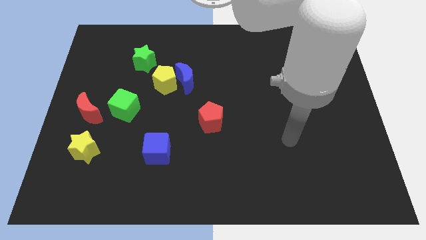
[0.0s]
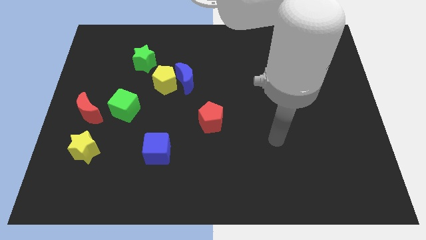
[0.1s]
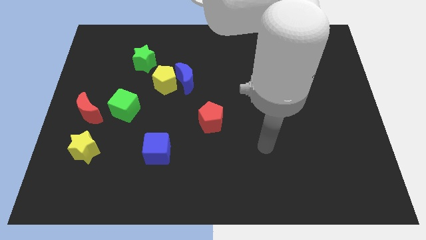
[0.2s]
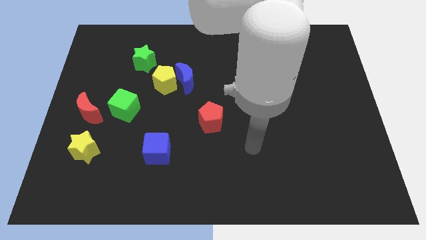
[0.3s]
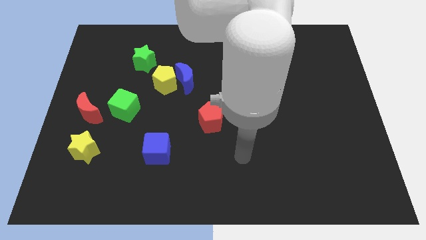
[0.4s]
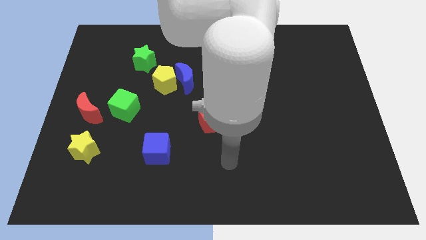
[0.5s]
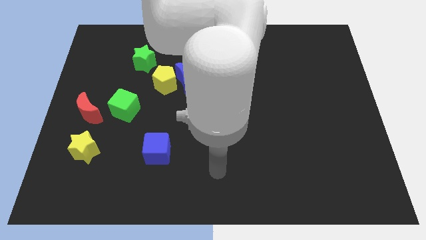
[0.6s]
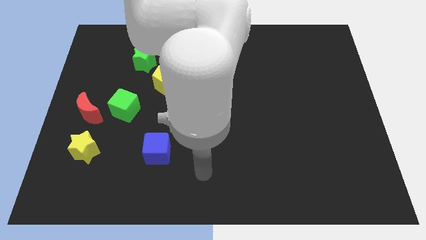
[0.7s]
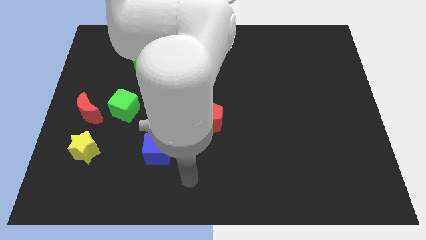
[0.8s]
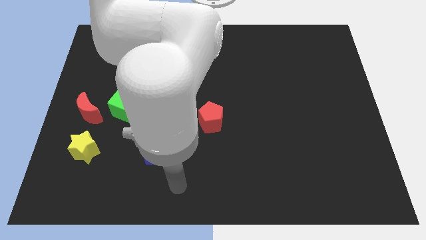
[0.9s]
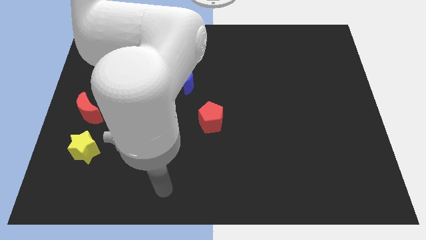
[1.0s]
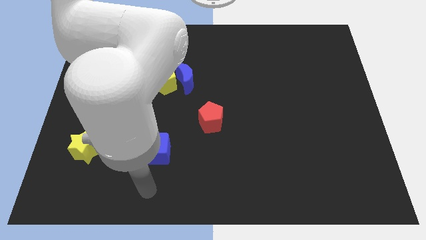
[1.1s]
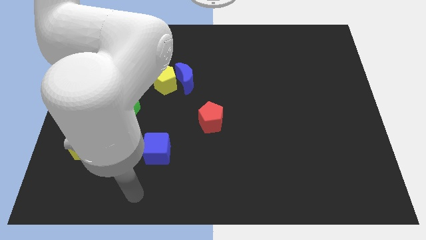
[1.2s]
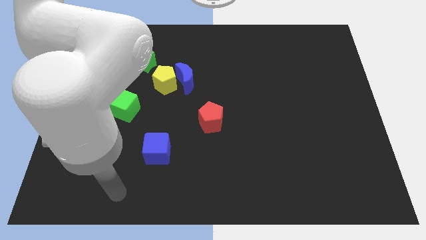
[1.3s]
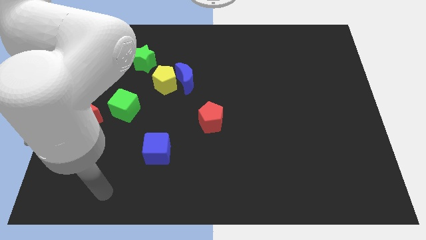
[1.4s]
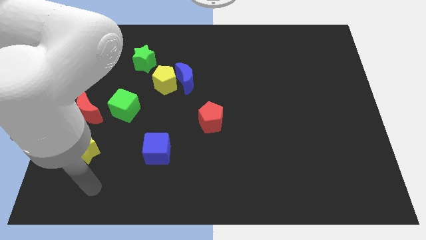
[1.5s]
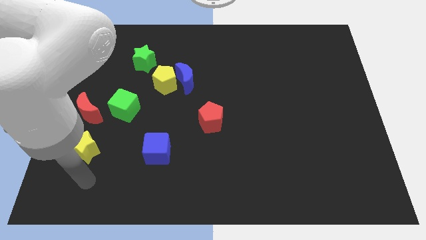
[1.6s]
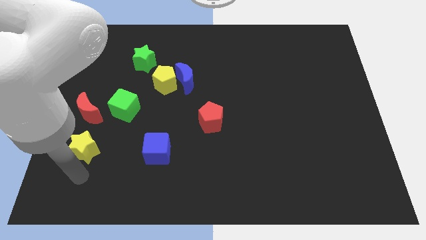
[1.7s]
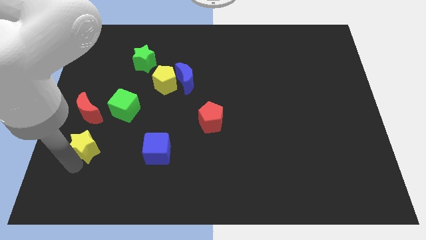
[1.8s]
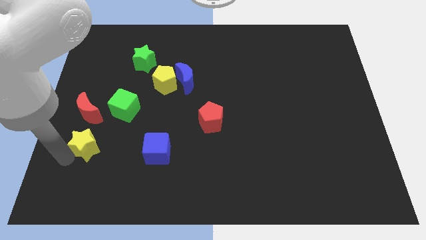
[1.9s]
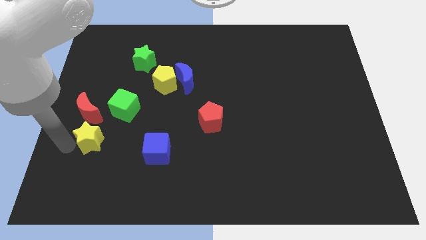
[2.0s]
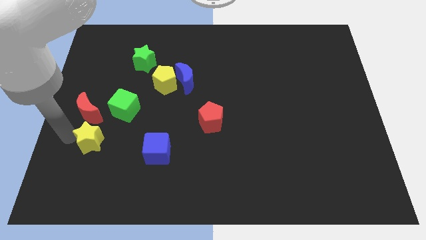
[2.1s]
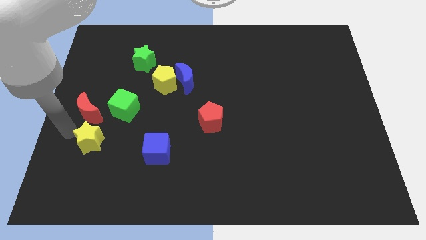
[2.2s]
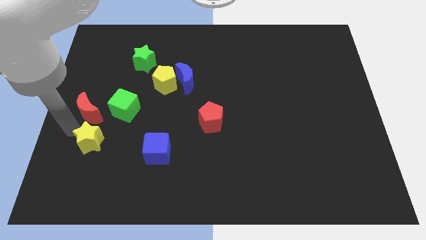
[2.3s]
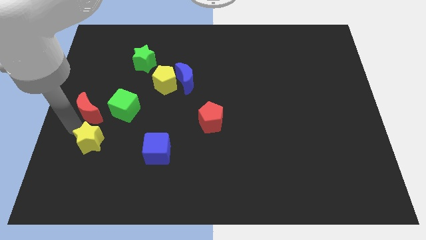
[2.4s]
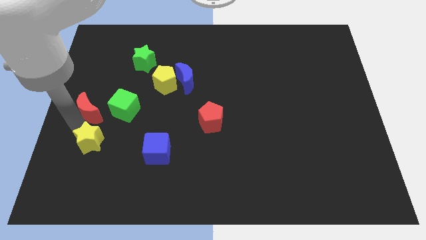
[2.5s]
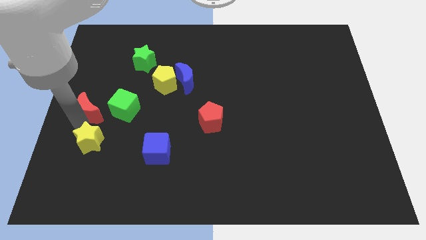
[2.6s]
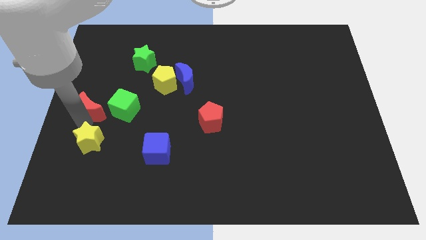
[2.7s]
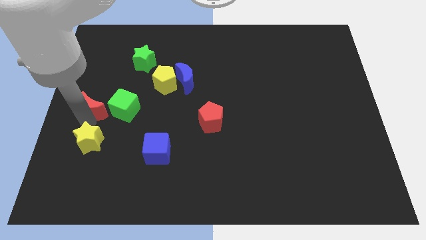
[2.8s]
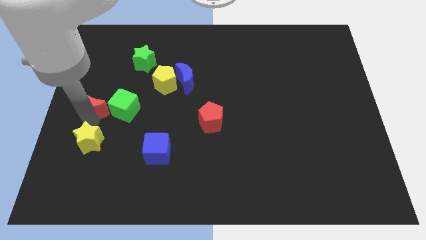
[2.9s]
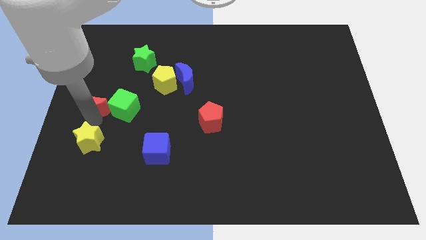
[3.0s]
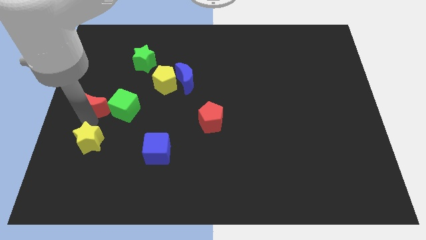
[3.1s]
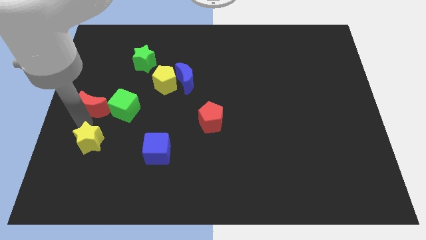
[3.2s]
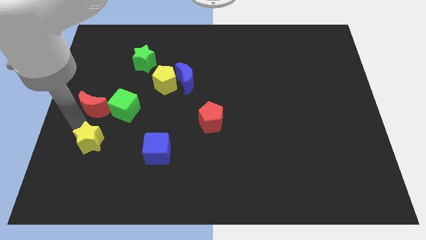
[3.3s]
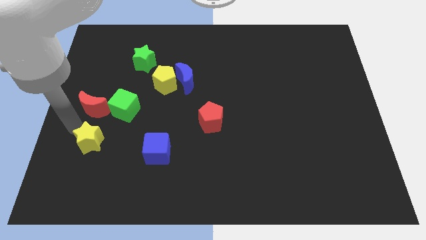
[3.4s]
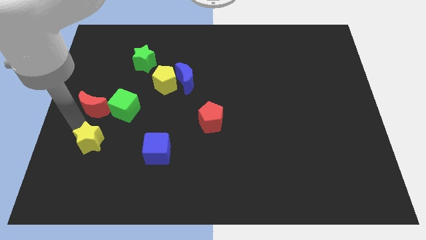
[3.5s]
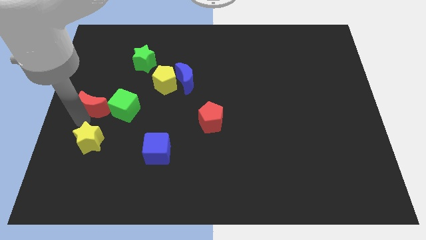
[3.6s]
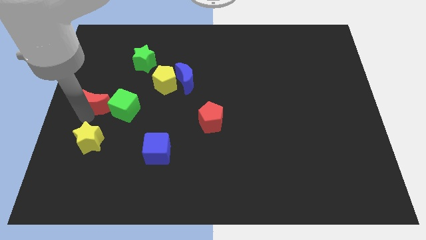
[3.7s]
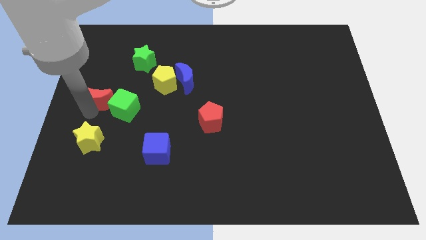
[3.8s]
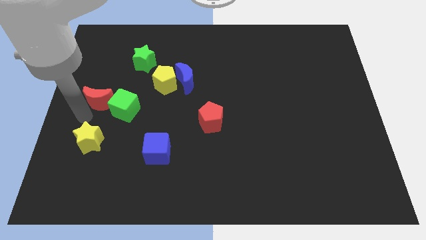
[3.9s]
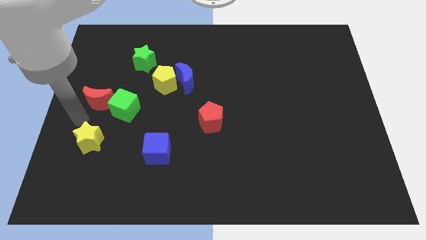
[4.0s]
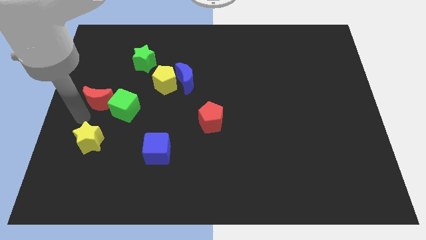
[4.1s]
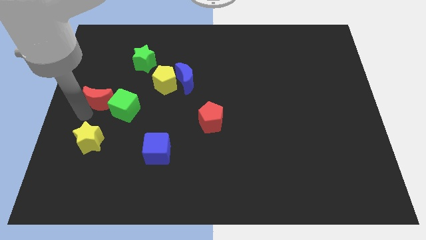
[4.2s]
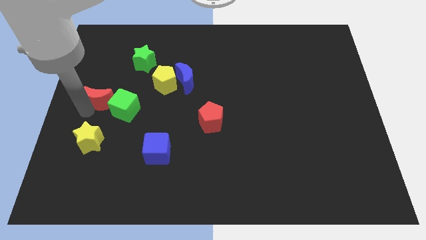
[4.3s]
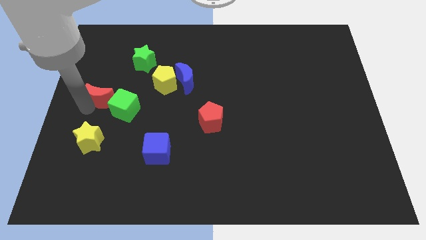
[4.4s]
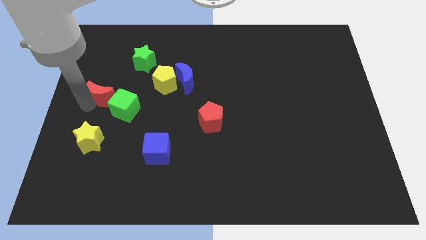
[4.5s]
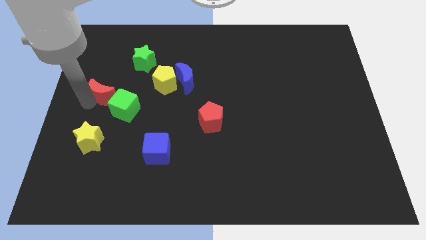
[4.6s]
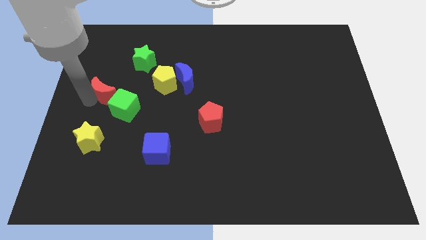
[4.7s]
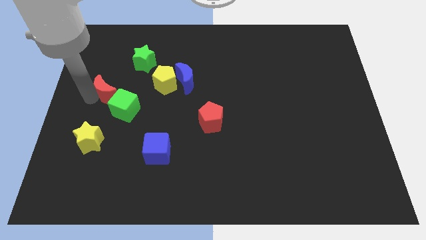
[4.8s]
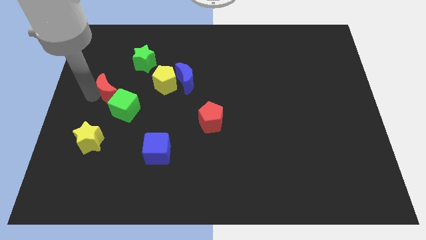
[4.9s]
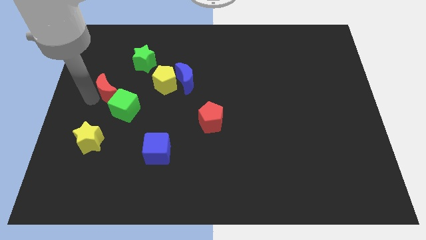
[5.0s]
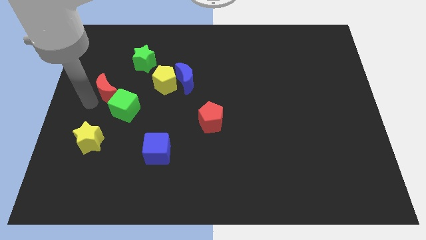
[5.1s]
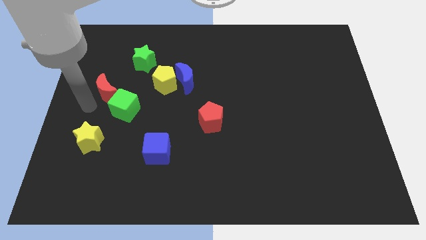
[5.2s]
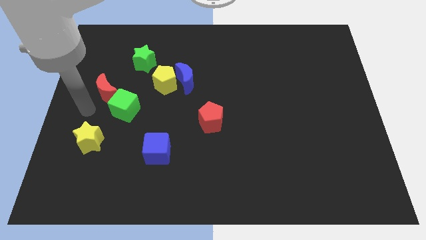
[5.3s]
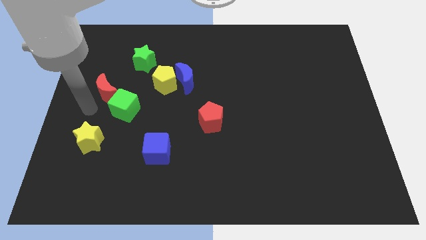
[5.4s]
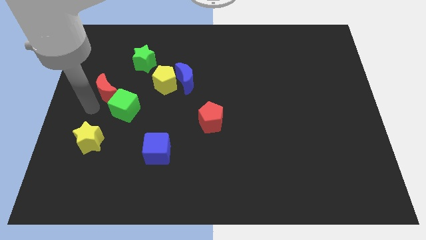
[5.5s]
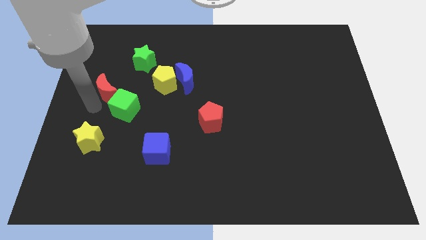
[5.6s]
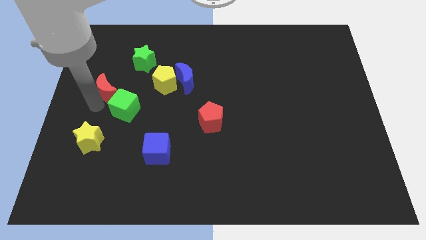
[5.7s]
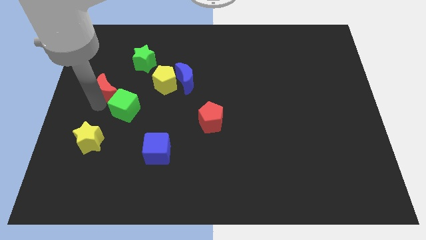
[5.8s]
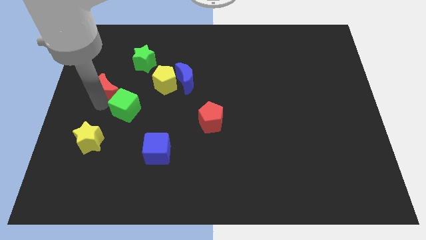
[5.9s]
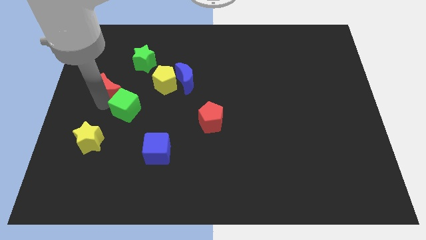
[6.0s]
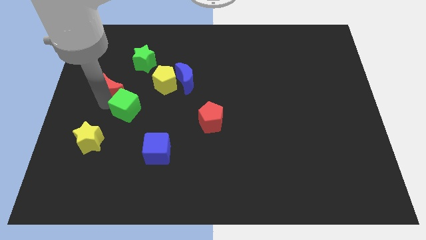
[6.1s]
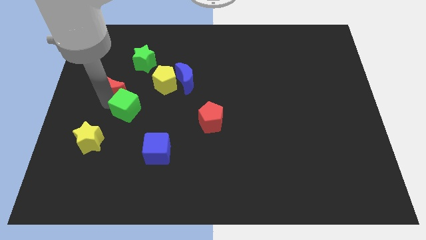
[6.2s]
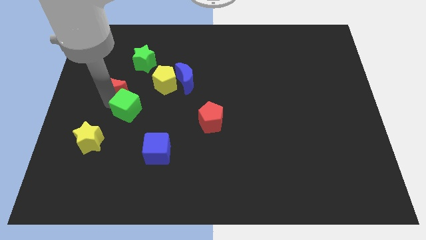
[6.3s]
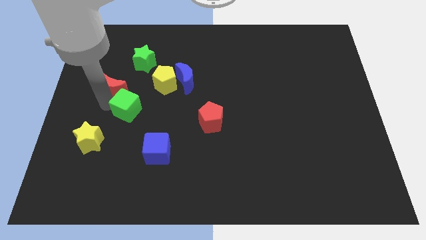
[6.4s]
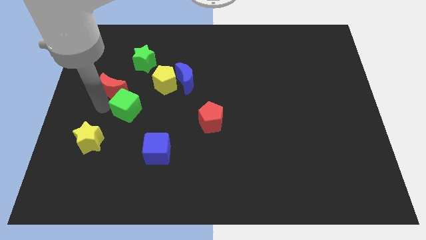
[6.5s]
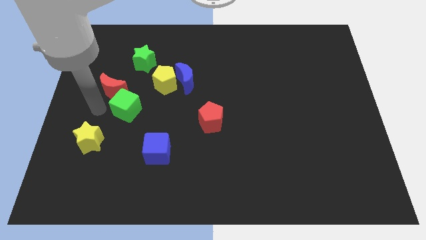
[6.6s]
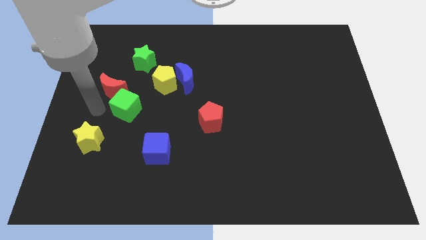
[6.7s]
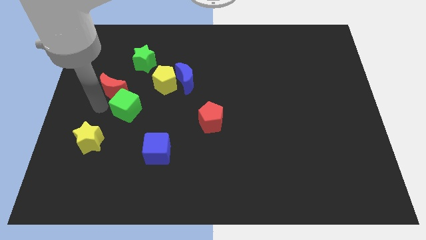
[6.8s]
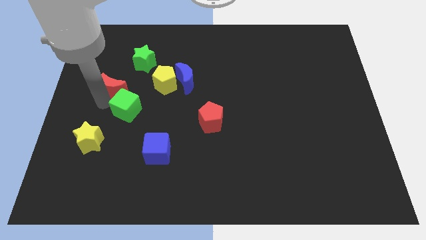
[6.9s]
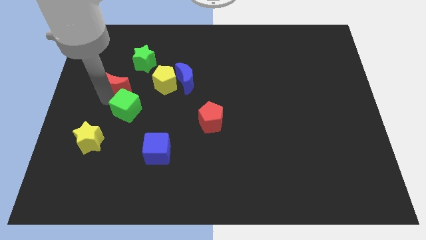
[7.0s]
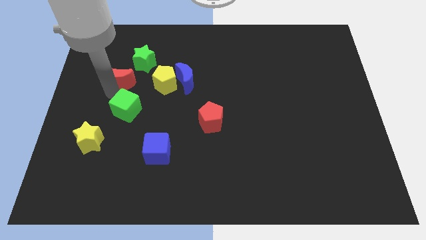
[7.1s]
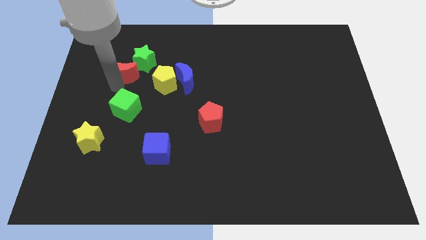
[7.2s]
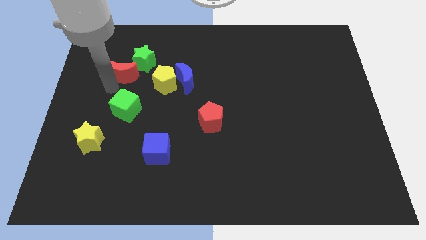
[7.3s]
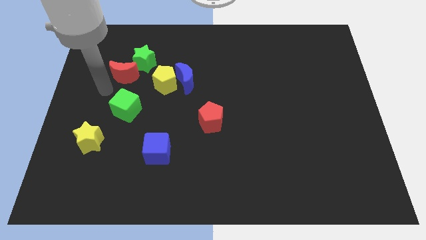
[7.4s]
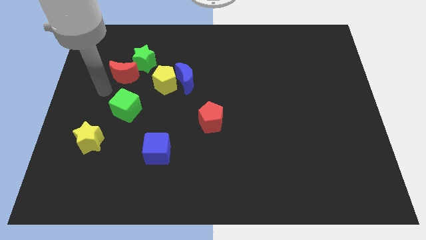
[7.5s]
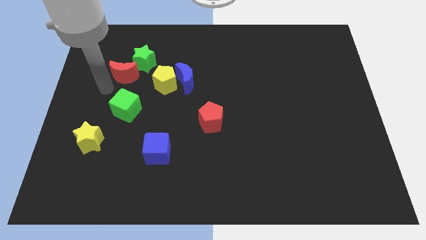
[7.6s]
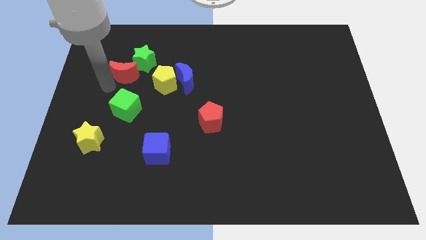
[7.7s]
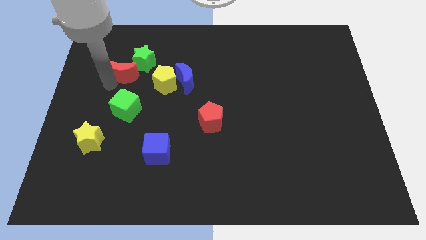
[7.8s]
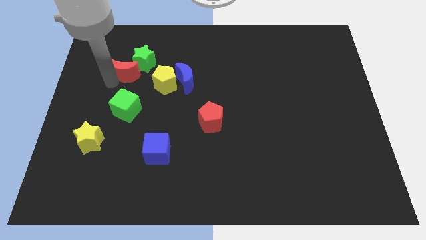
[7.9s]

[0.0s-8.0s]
move the red moon next to the green star
